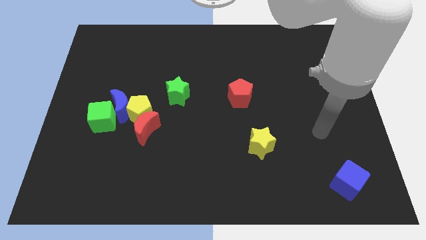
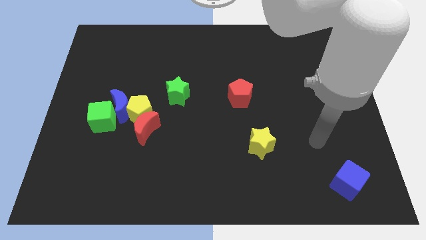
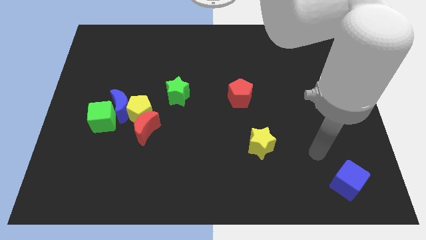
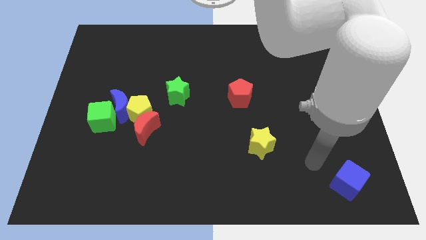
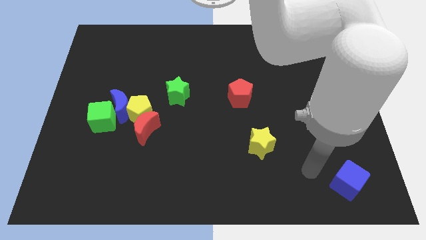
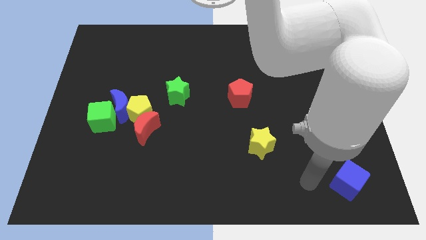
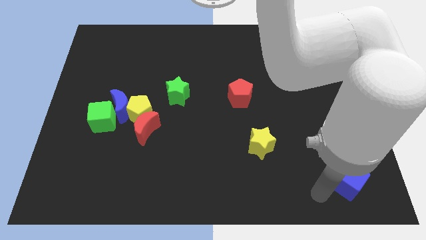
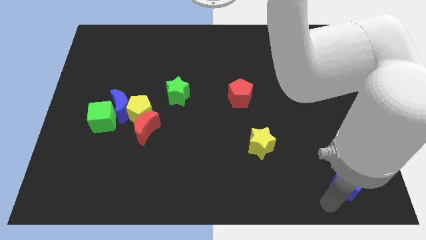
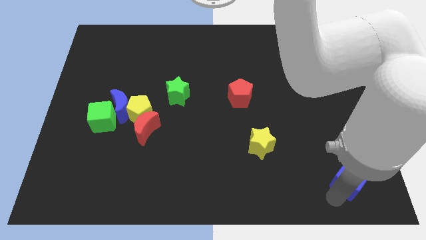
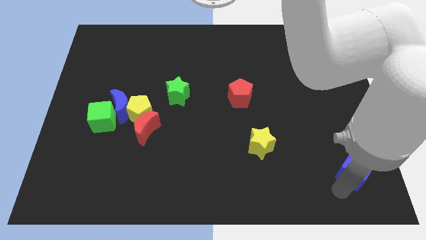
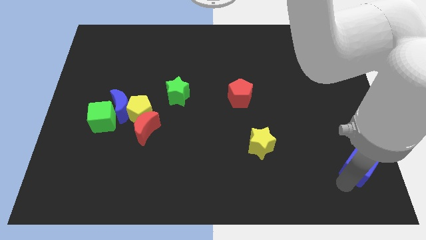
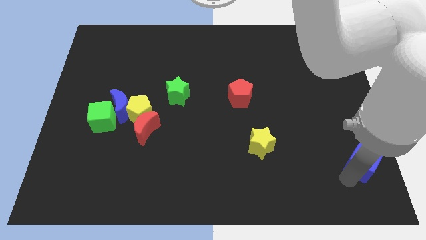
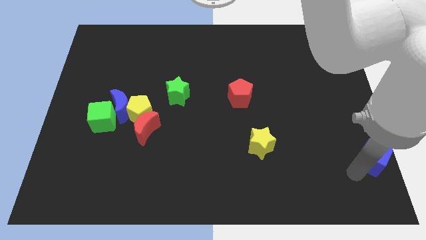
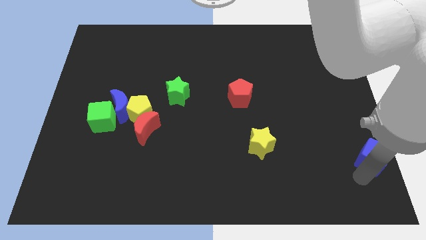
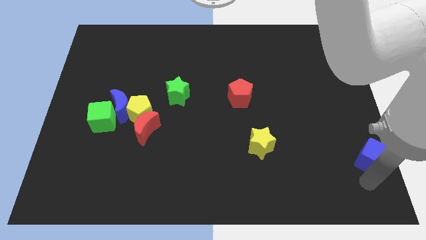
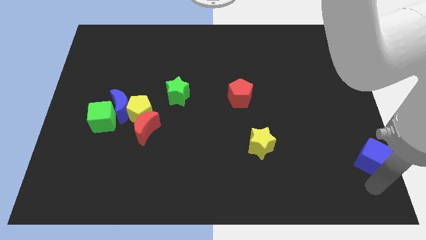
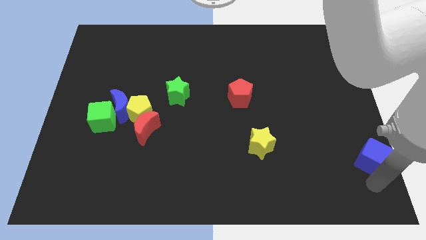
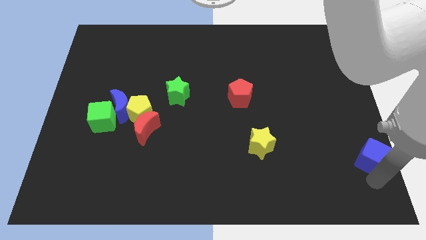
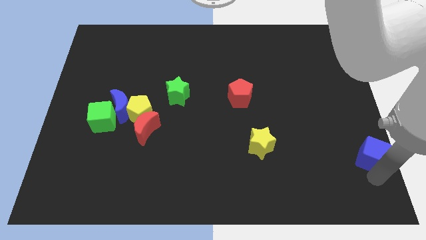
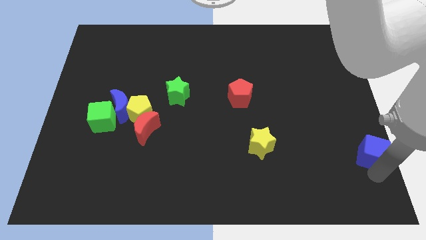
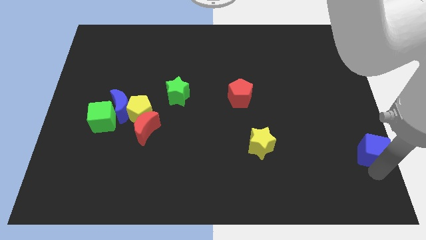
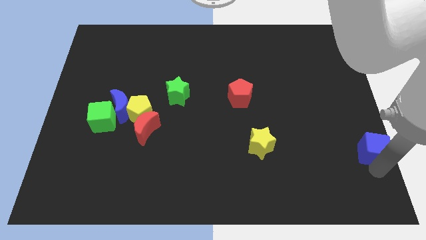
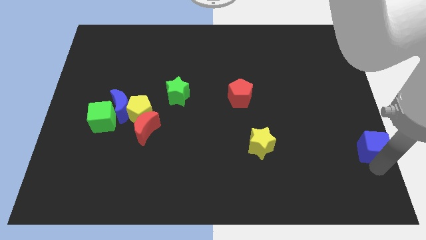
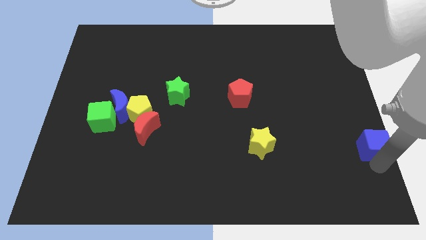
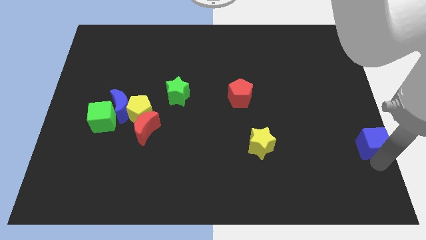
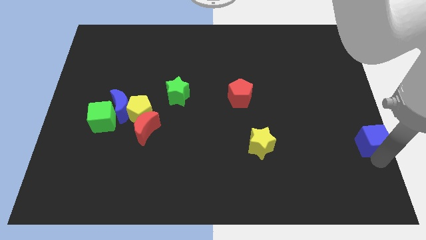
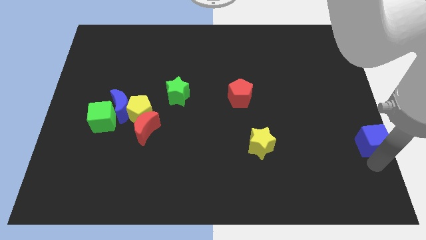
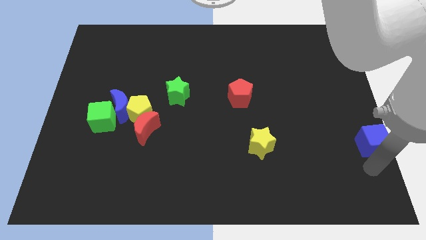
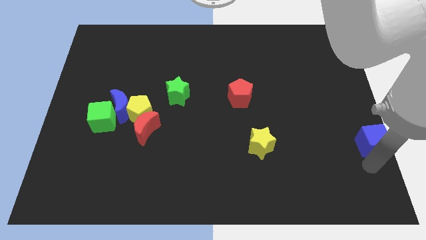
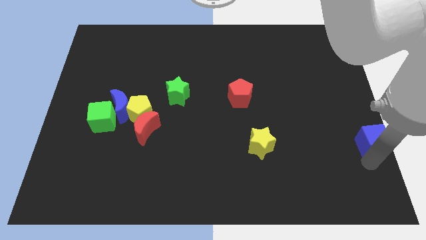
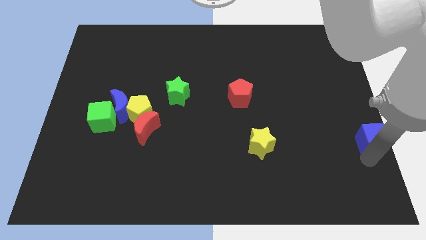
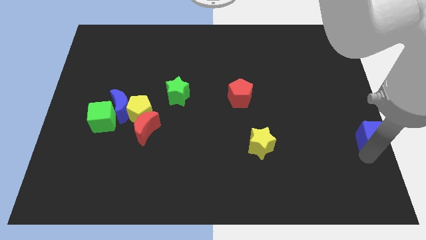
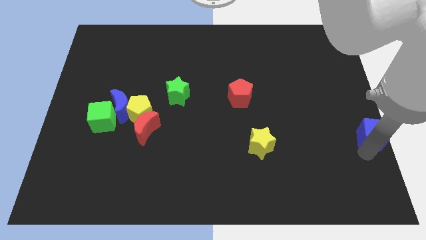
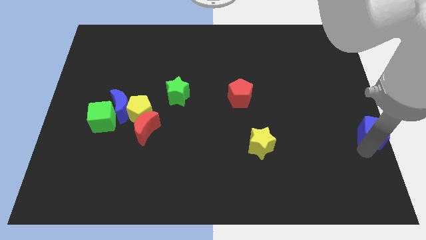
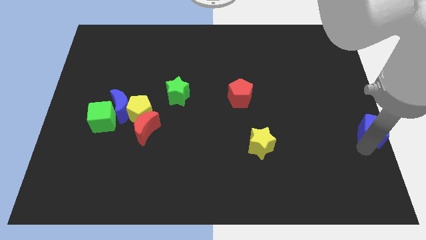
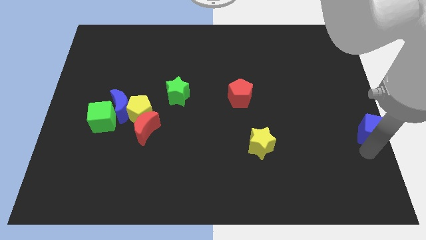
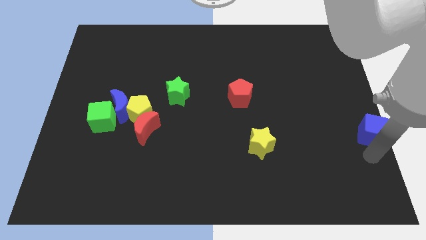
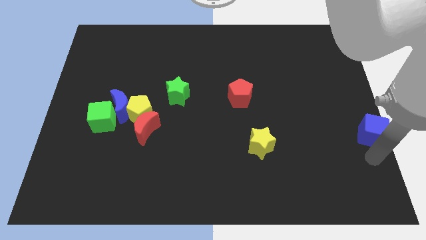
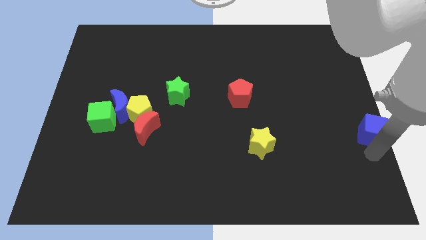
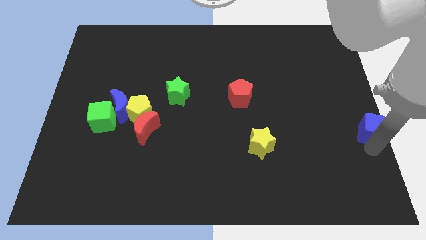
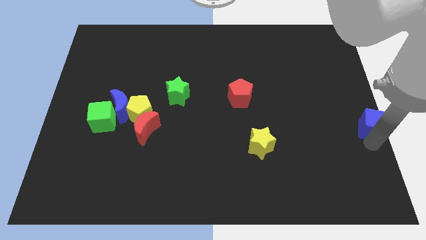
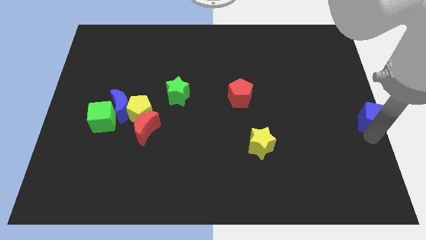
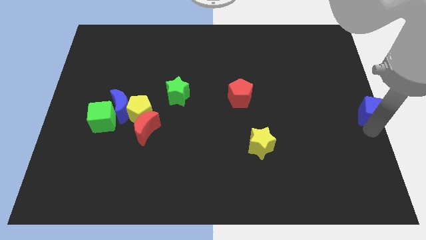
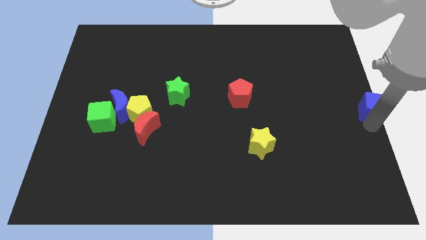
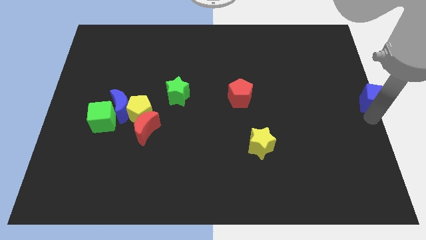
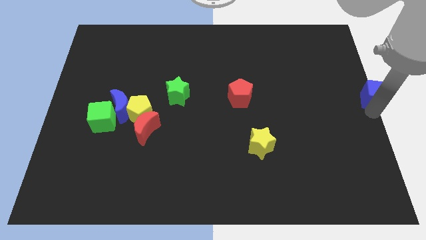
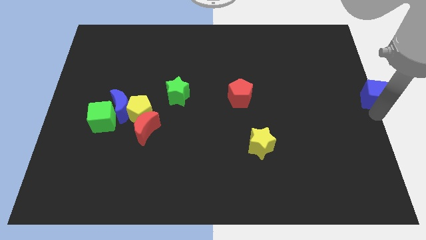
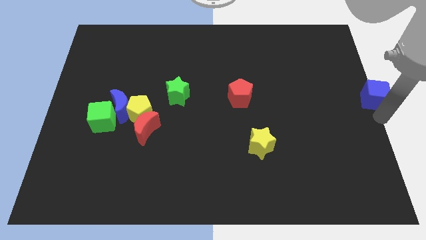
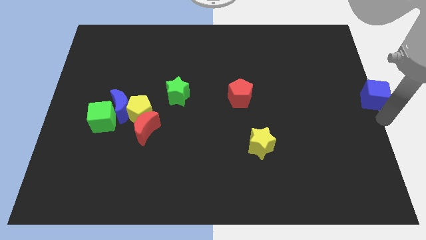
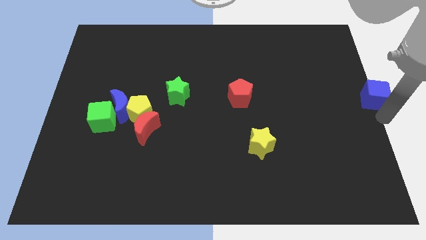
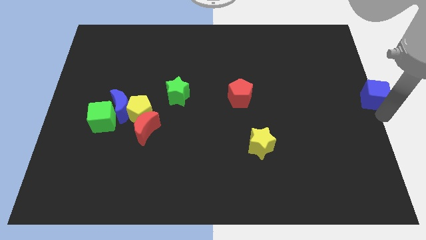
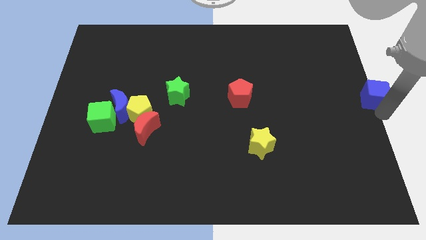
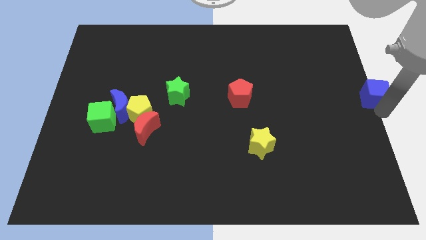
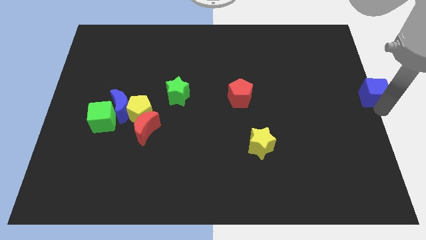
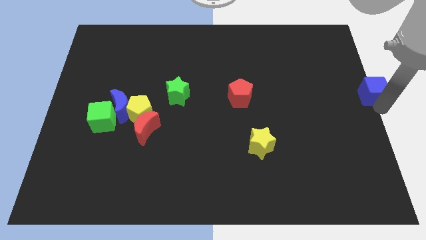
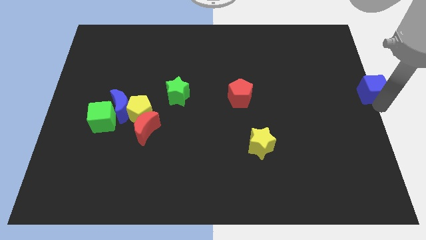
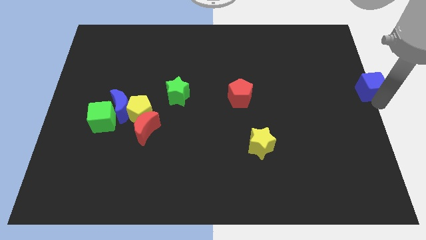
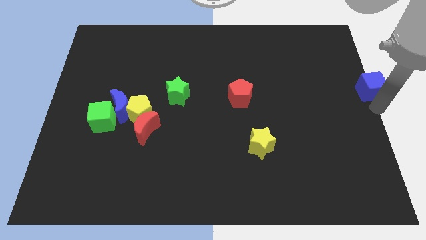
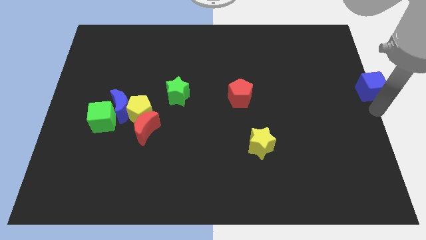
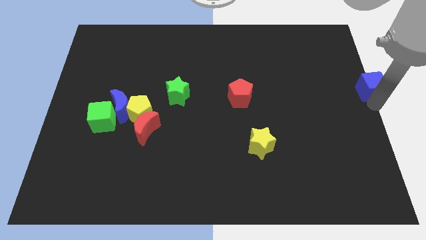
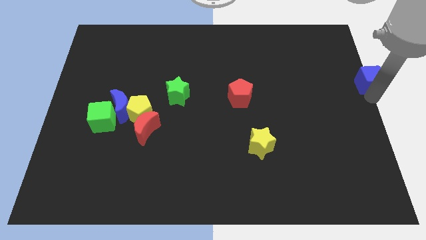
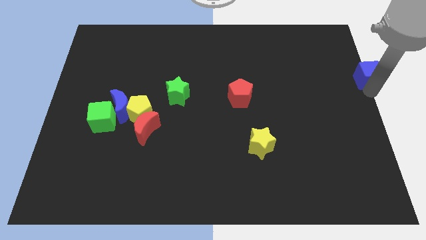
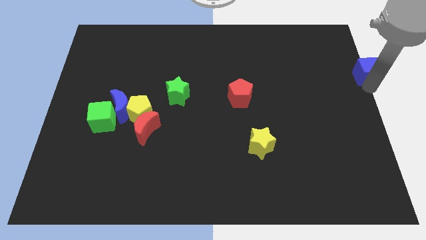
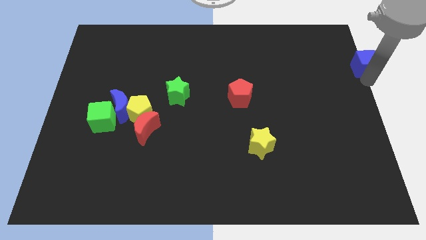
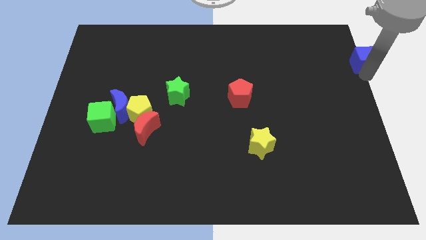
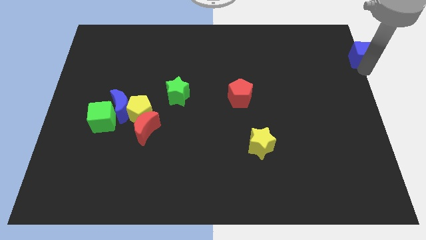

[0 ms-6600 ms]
push the blue cube to the top right
